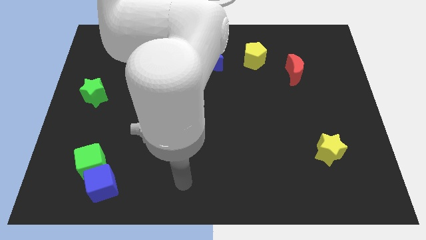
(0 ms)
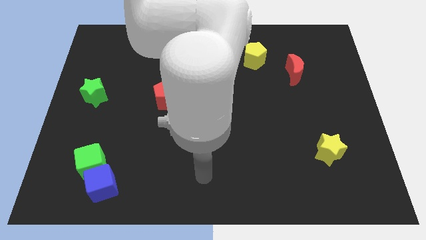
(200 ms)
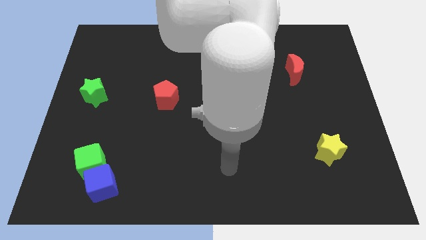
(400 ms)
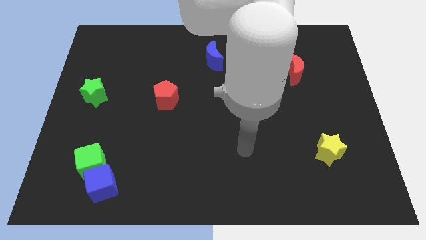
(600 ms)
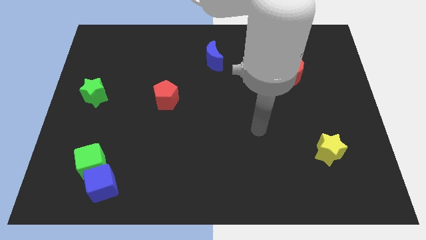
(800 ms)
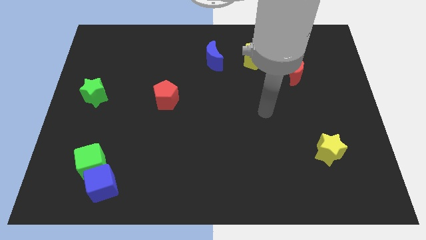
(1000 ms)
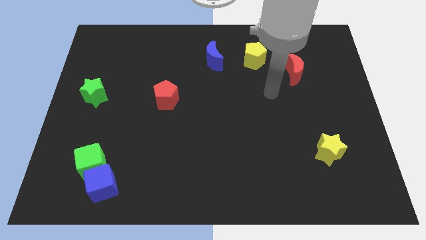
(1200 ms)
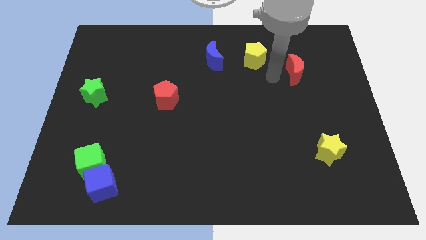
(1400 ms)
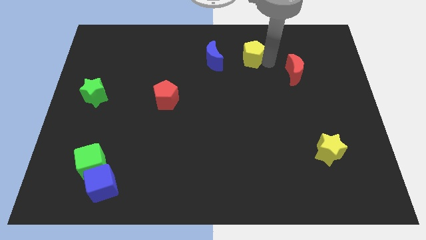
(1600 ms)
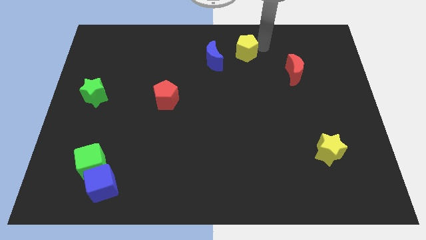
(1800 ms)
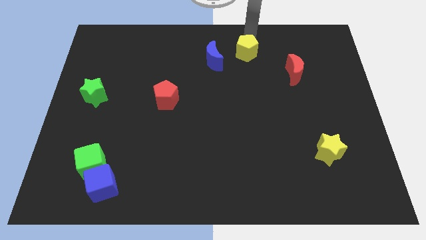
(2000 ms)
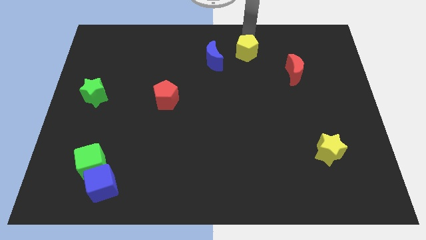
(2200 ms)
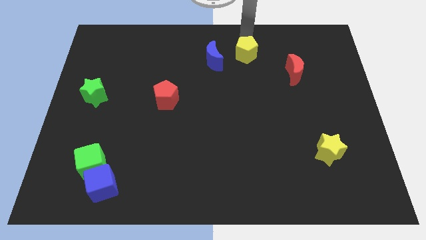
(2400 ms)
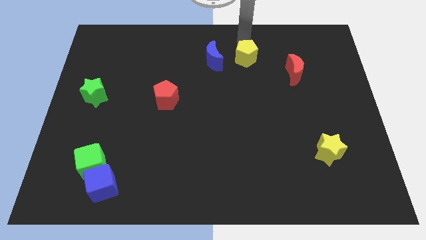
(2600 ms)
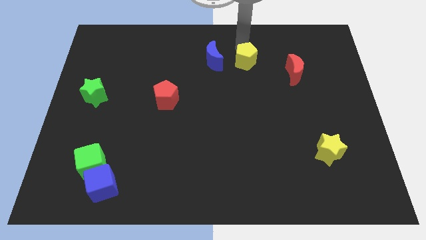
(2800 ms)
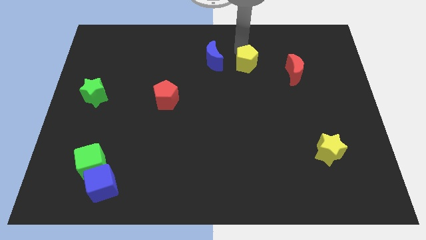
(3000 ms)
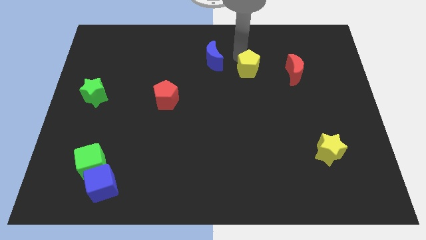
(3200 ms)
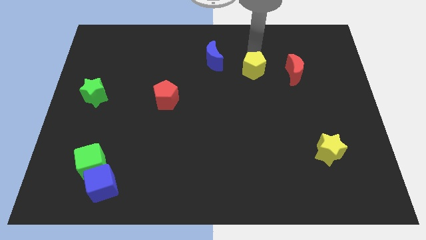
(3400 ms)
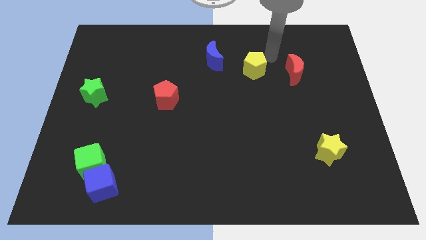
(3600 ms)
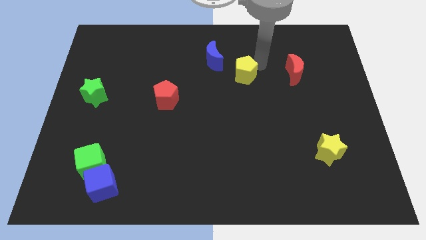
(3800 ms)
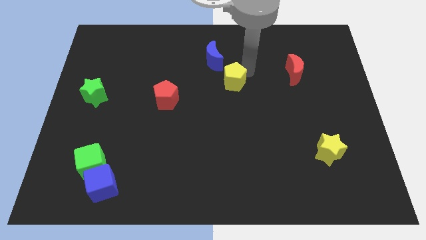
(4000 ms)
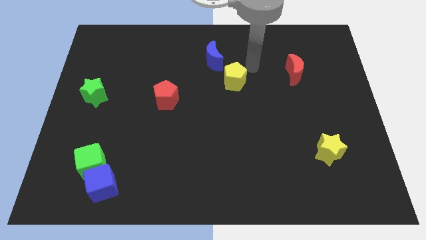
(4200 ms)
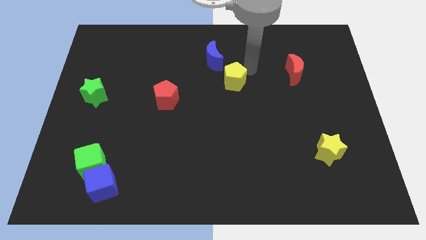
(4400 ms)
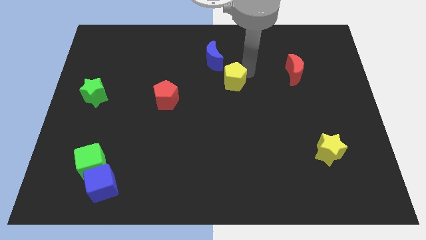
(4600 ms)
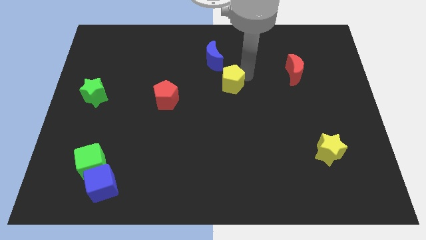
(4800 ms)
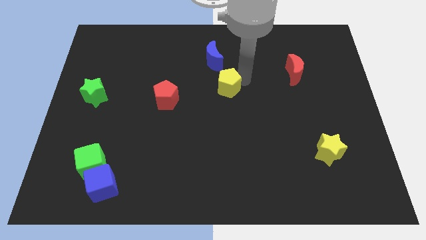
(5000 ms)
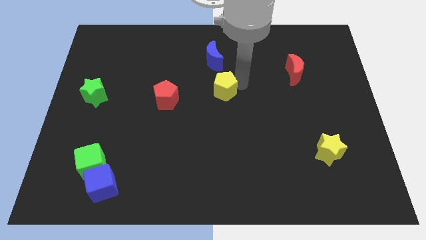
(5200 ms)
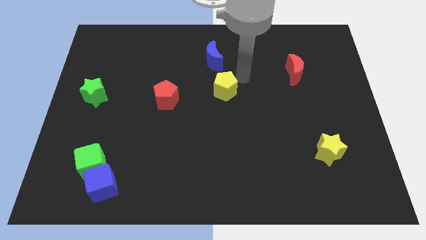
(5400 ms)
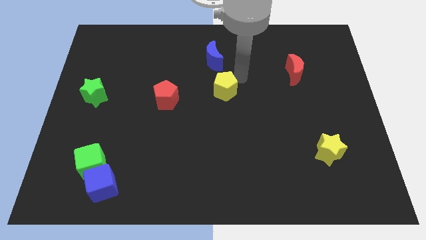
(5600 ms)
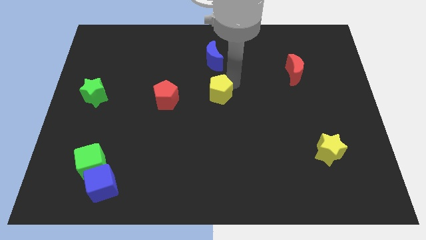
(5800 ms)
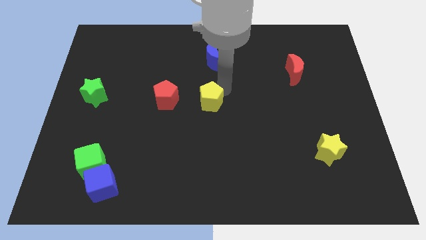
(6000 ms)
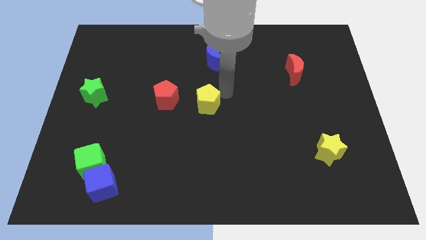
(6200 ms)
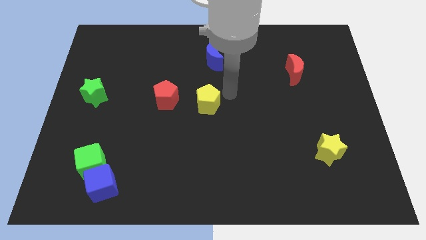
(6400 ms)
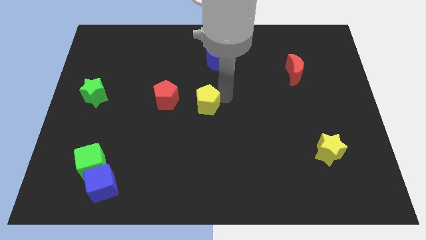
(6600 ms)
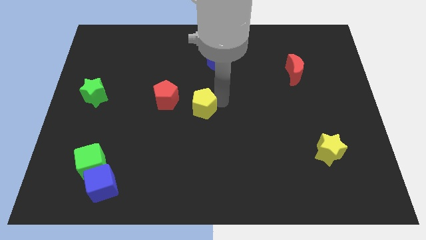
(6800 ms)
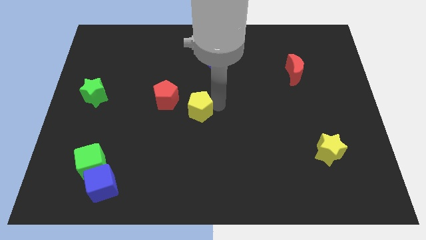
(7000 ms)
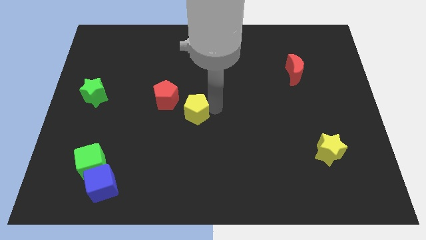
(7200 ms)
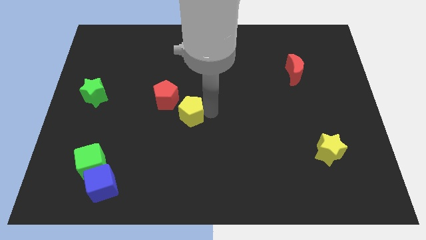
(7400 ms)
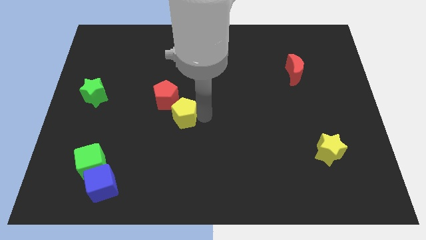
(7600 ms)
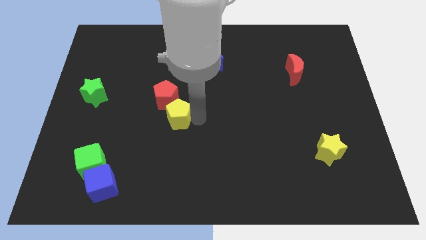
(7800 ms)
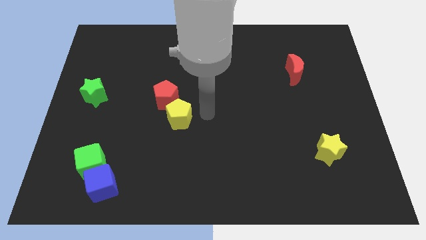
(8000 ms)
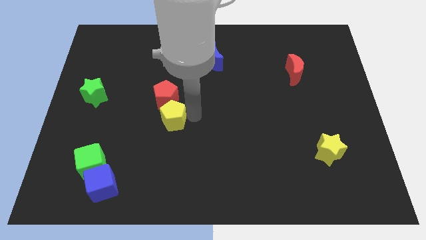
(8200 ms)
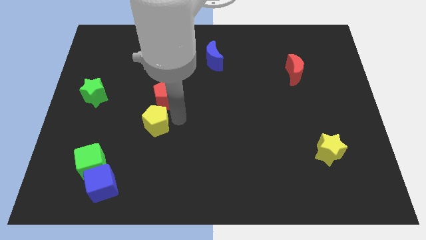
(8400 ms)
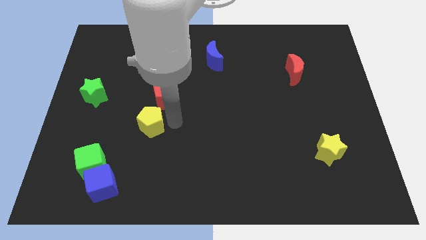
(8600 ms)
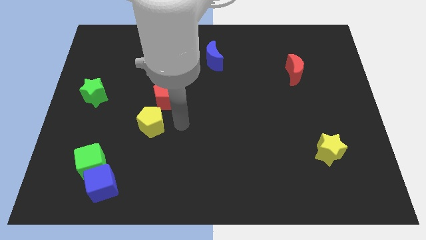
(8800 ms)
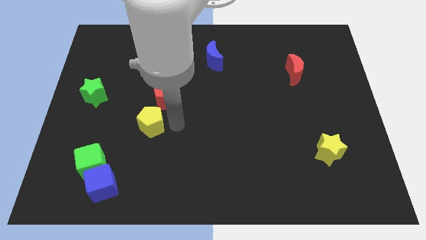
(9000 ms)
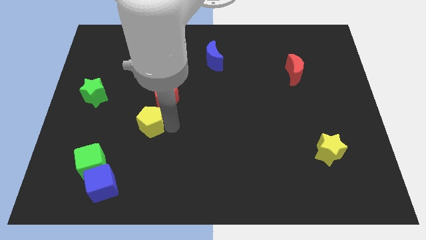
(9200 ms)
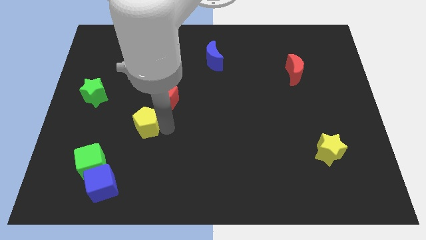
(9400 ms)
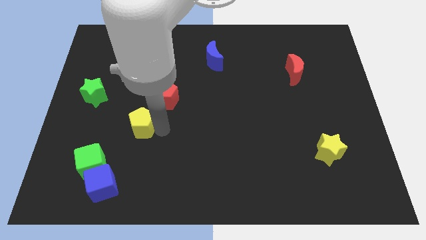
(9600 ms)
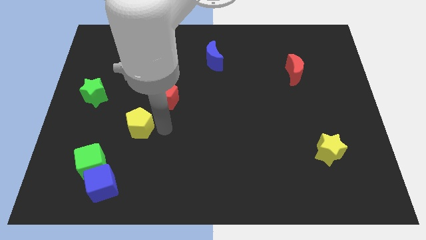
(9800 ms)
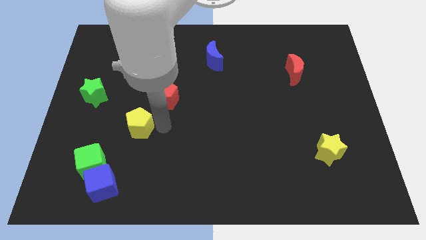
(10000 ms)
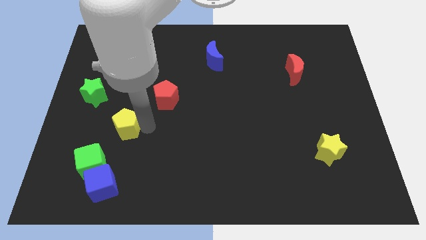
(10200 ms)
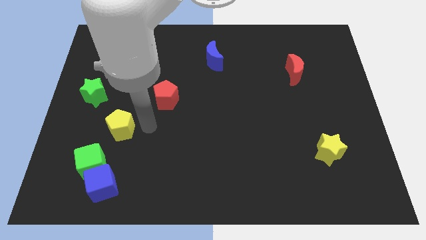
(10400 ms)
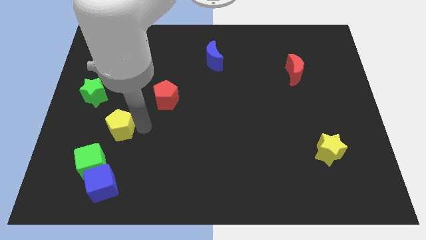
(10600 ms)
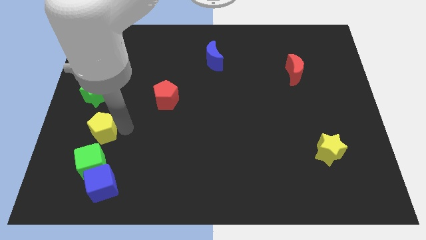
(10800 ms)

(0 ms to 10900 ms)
push the yellow pentagon to the bottom side of the green star

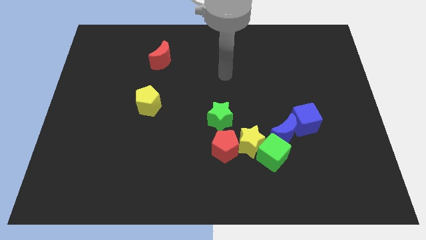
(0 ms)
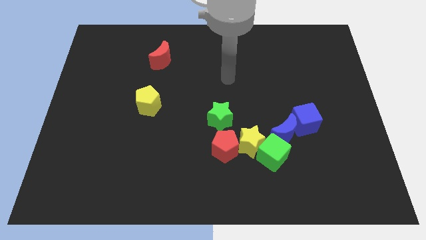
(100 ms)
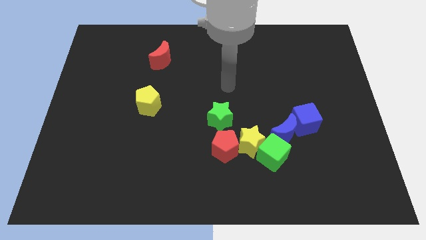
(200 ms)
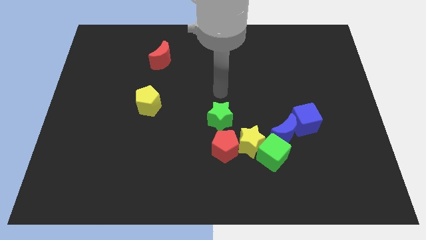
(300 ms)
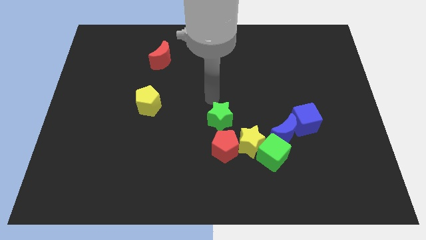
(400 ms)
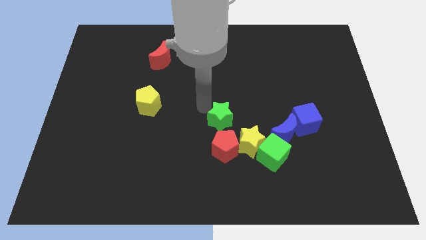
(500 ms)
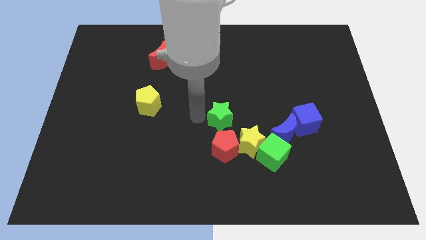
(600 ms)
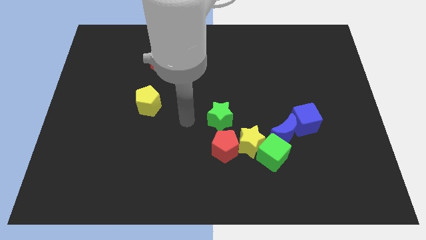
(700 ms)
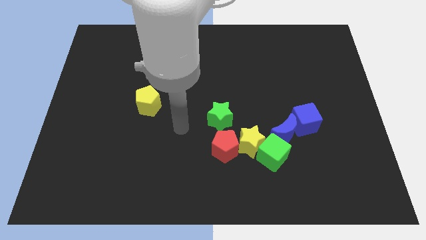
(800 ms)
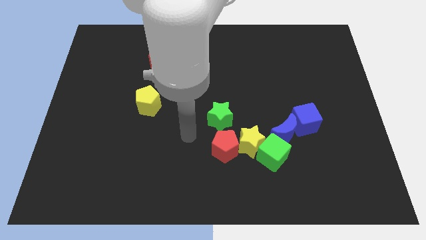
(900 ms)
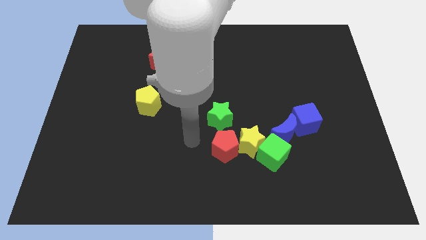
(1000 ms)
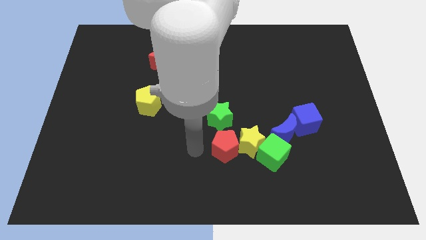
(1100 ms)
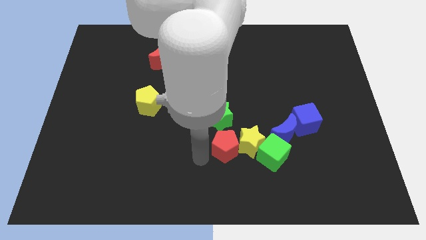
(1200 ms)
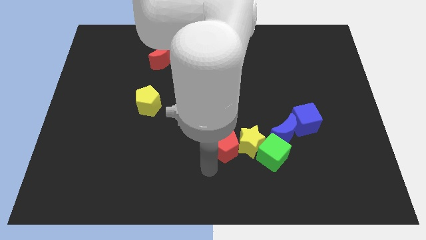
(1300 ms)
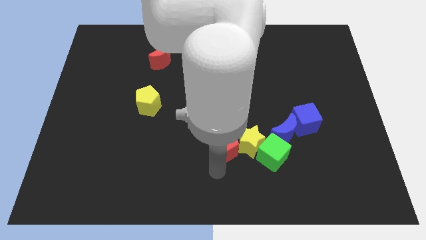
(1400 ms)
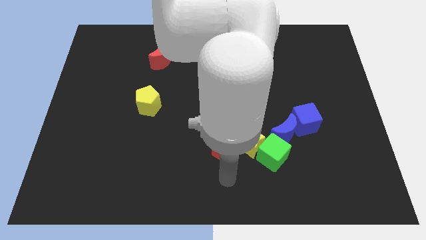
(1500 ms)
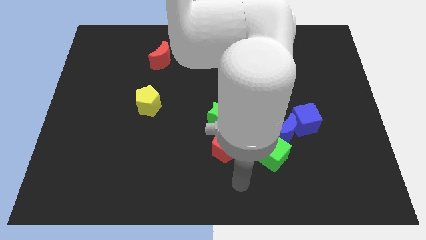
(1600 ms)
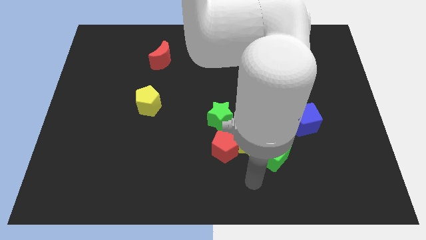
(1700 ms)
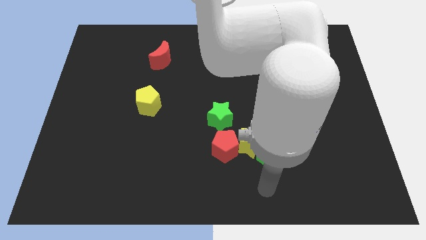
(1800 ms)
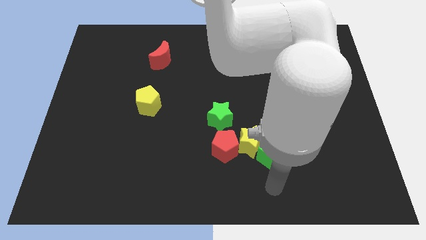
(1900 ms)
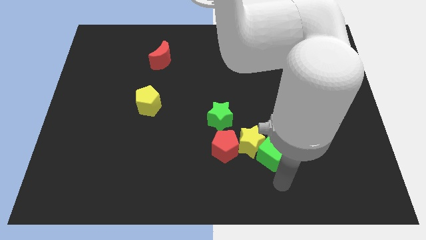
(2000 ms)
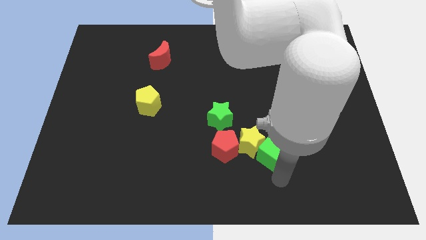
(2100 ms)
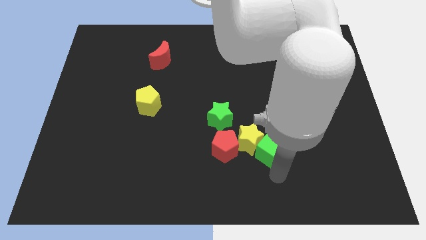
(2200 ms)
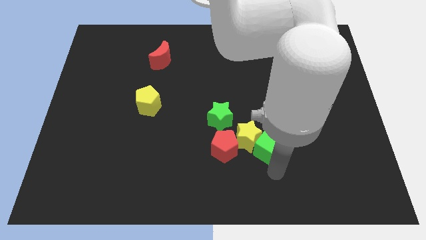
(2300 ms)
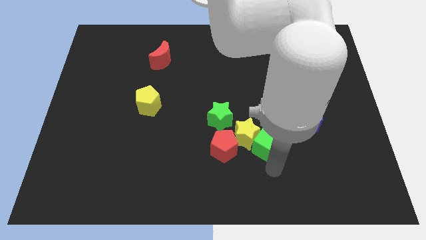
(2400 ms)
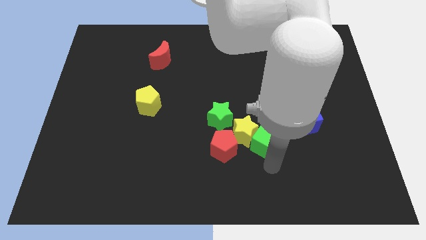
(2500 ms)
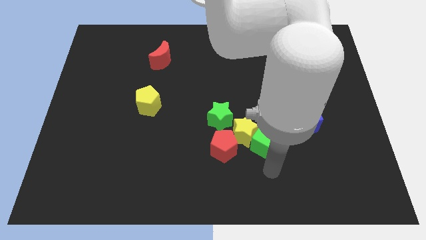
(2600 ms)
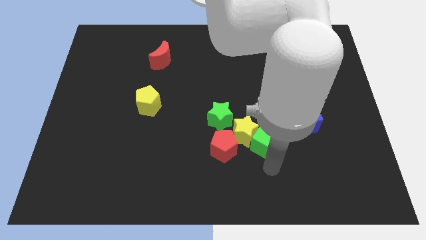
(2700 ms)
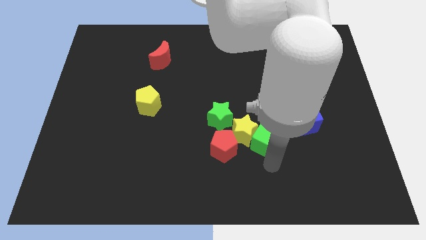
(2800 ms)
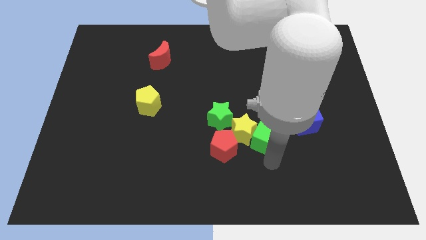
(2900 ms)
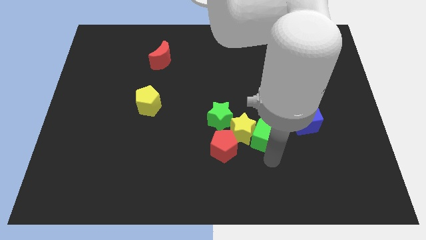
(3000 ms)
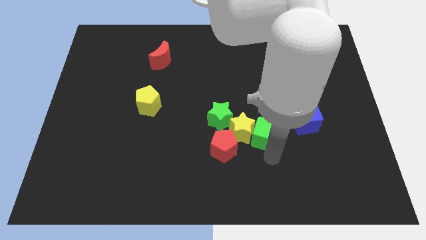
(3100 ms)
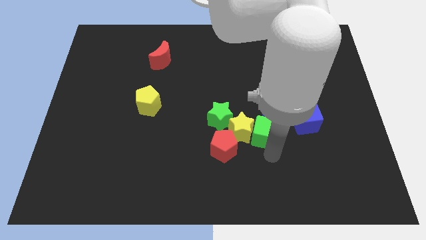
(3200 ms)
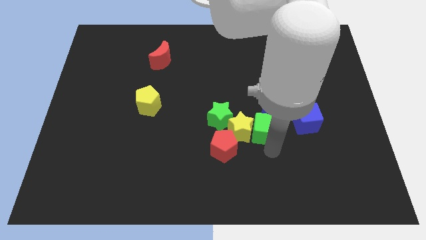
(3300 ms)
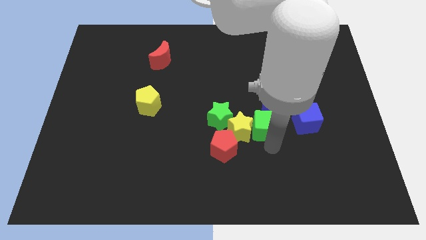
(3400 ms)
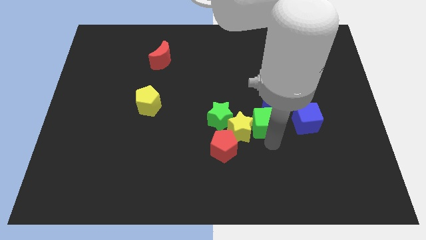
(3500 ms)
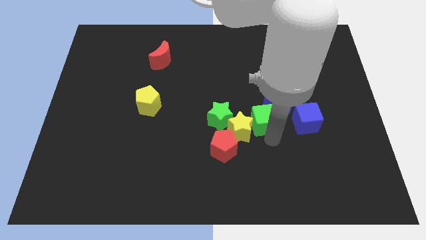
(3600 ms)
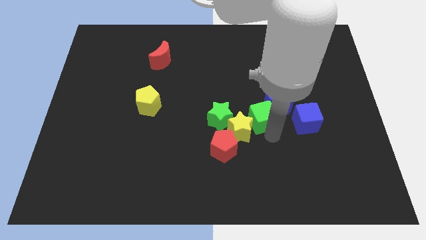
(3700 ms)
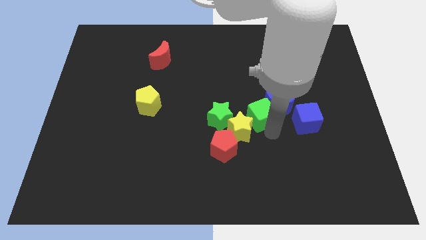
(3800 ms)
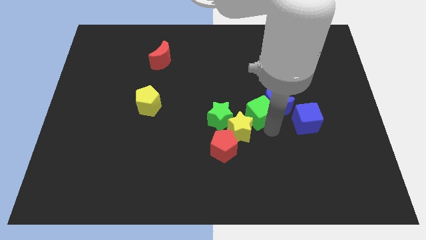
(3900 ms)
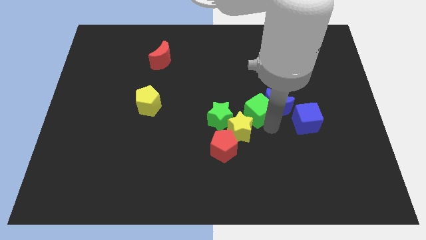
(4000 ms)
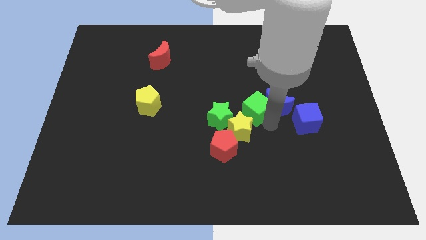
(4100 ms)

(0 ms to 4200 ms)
slide the green cube to the top right side of the green star
